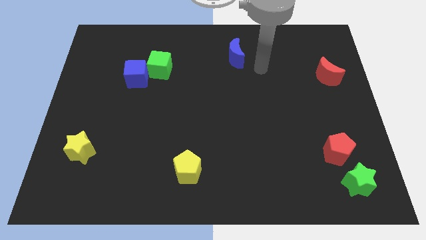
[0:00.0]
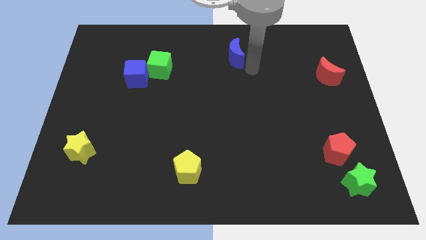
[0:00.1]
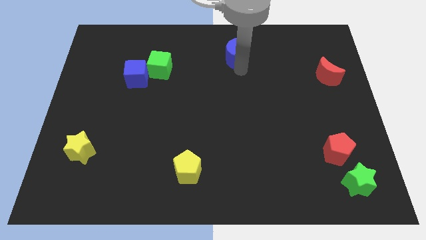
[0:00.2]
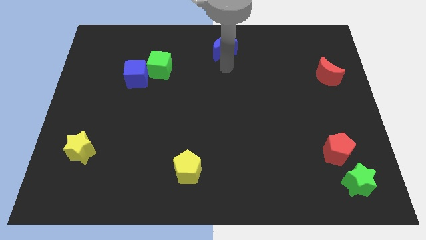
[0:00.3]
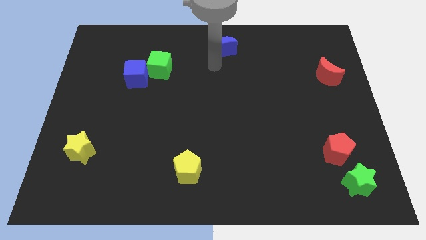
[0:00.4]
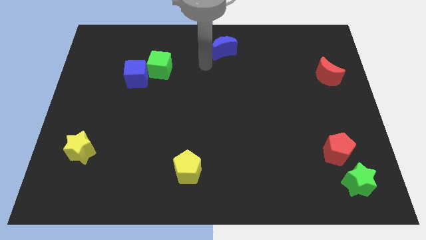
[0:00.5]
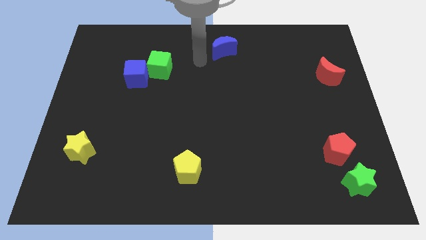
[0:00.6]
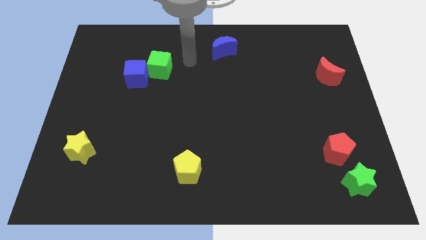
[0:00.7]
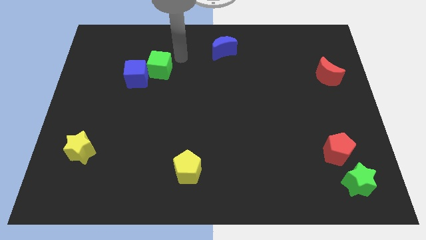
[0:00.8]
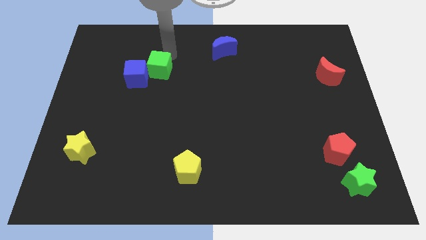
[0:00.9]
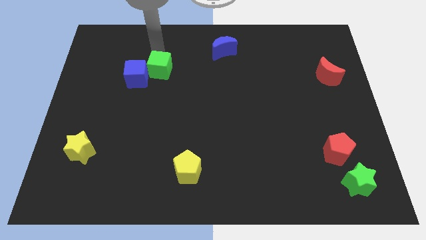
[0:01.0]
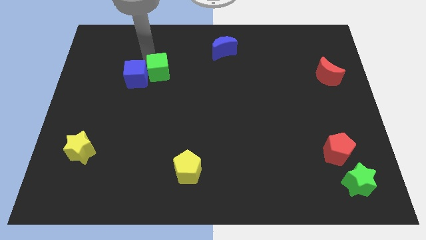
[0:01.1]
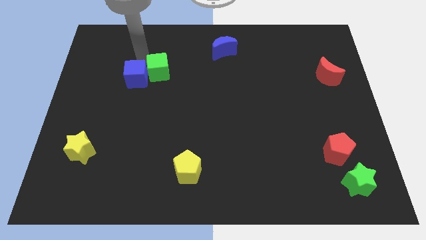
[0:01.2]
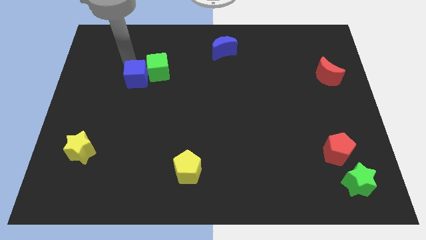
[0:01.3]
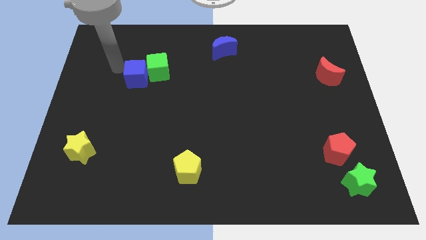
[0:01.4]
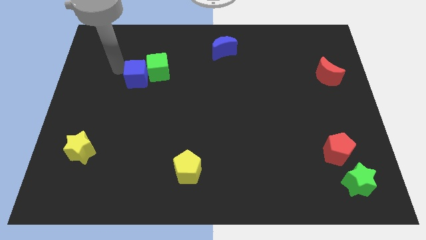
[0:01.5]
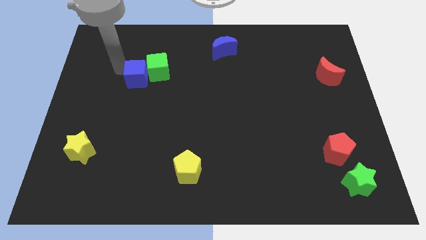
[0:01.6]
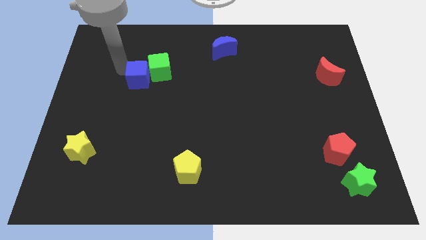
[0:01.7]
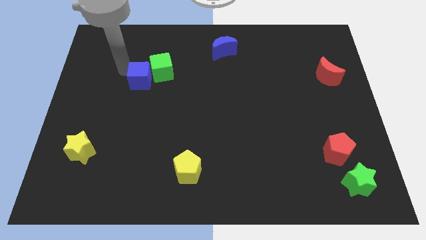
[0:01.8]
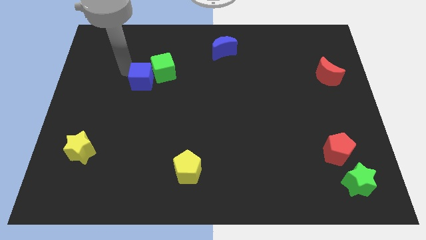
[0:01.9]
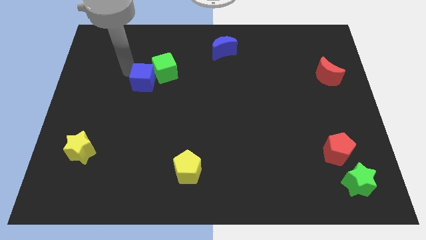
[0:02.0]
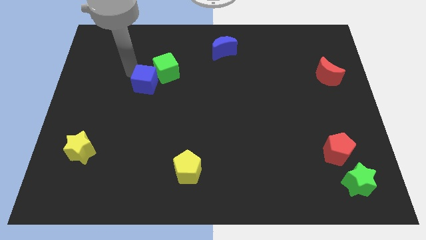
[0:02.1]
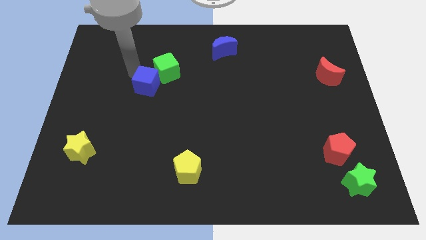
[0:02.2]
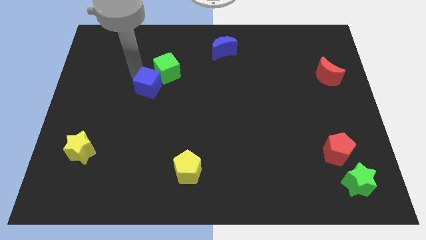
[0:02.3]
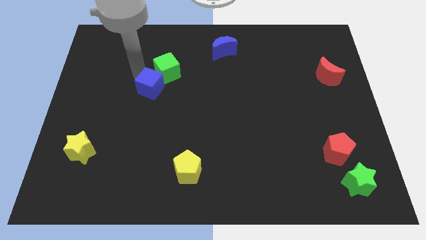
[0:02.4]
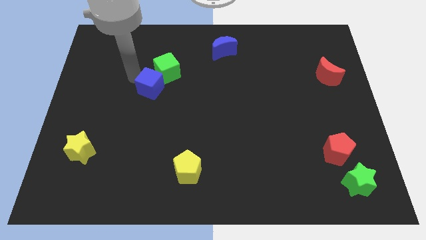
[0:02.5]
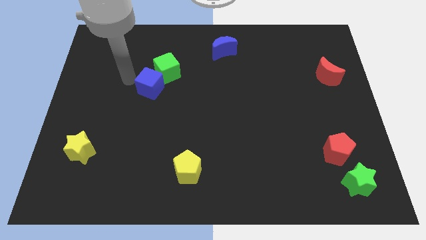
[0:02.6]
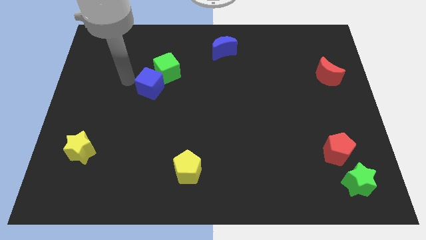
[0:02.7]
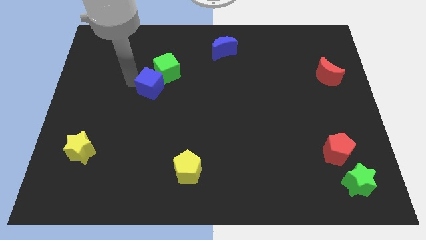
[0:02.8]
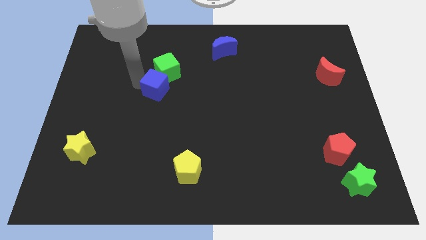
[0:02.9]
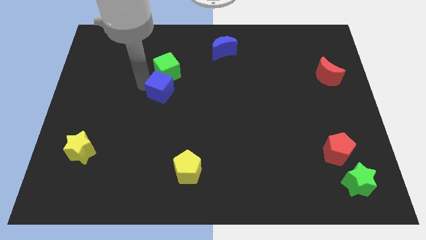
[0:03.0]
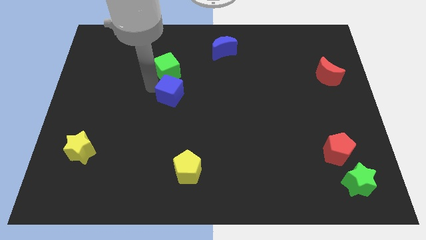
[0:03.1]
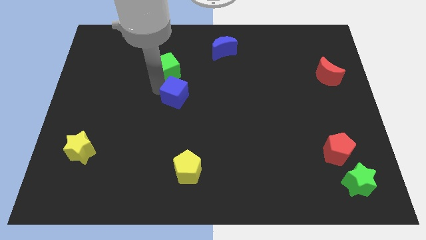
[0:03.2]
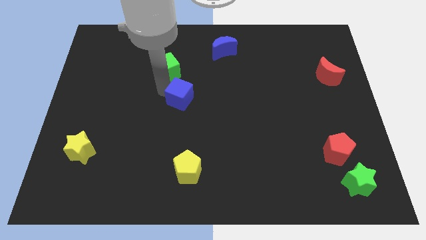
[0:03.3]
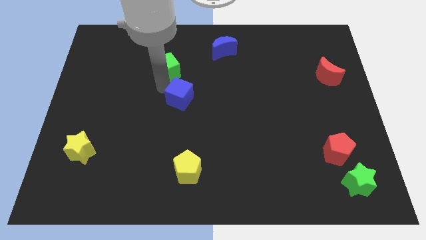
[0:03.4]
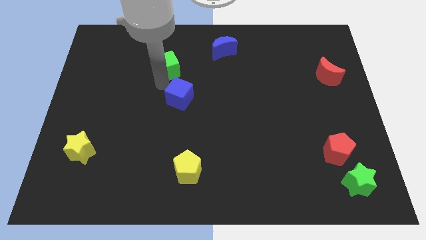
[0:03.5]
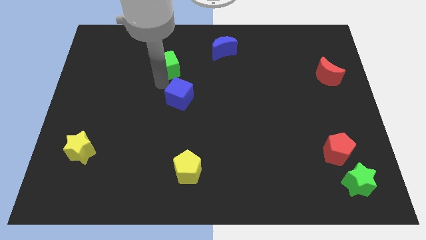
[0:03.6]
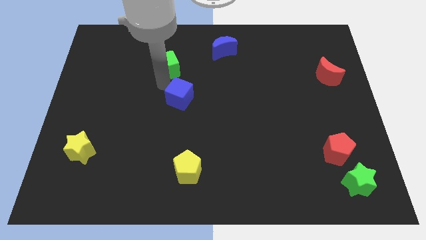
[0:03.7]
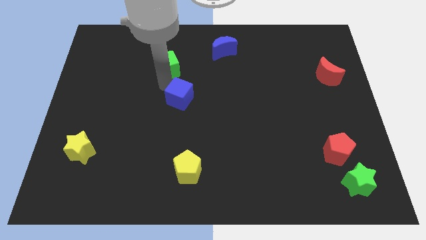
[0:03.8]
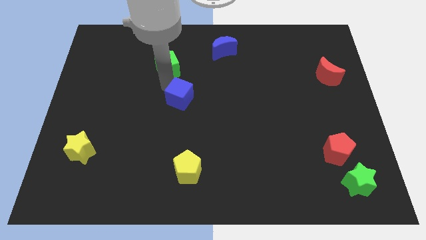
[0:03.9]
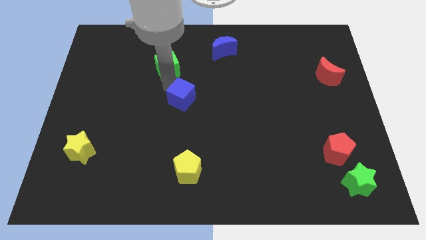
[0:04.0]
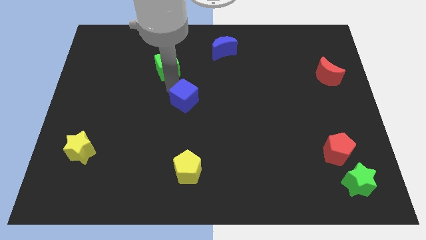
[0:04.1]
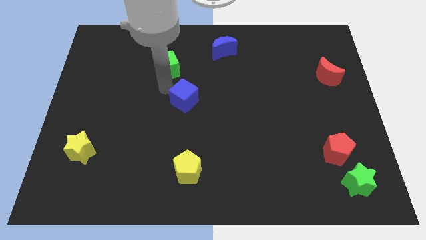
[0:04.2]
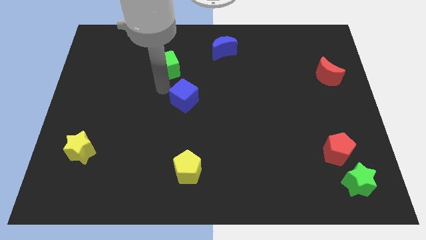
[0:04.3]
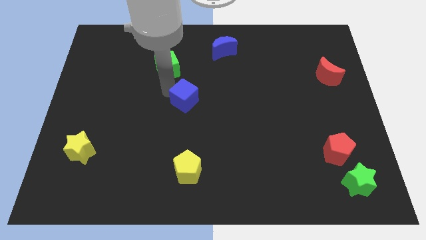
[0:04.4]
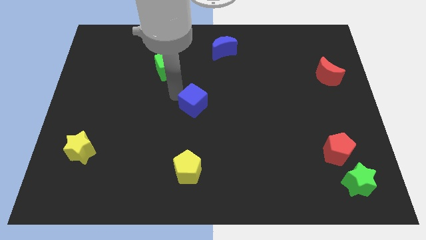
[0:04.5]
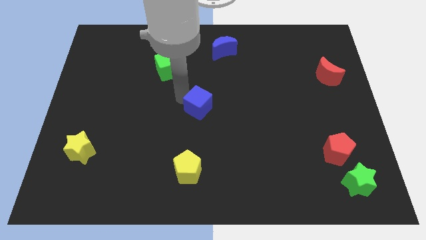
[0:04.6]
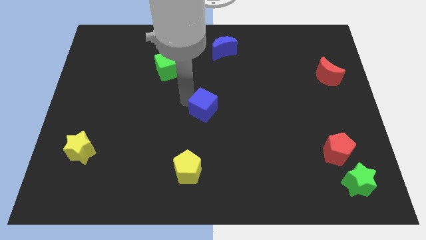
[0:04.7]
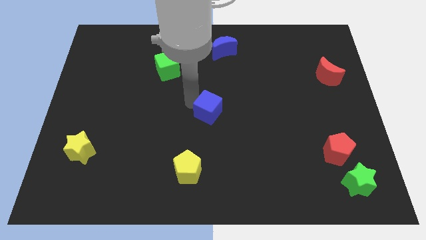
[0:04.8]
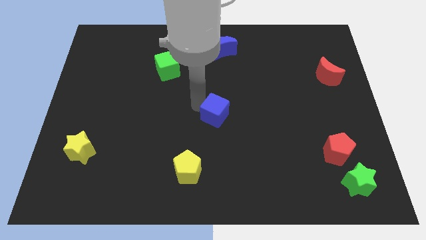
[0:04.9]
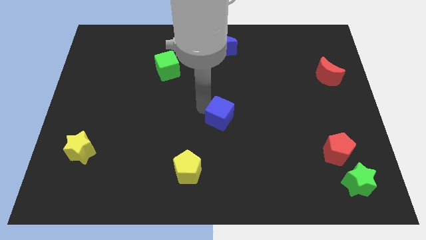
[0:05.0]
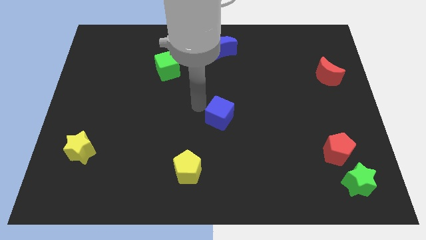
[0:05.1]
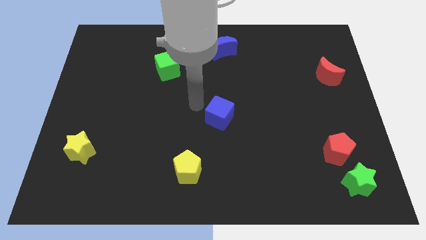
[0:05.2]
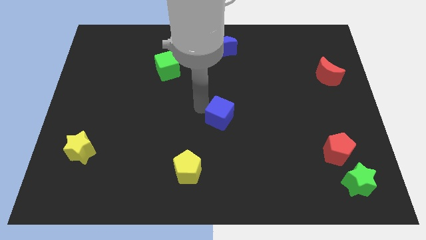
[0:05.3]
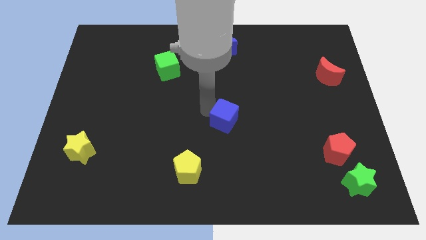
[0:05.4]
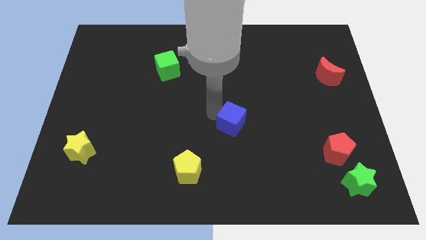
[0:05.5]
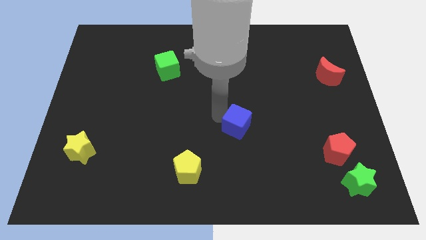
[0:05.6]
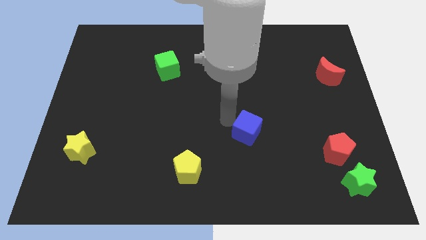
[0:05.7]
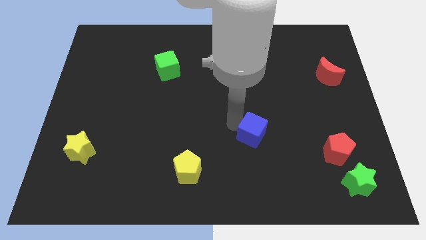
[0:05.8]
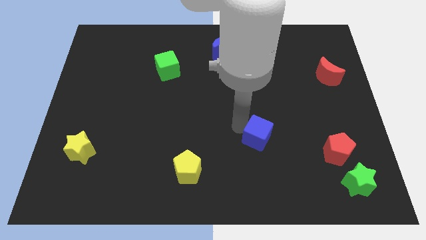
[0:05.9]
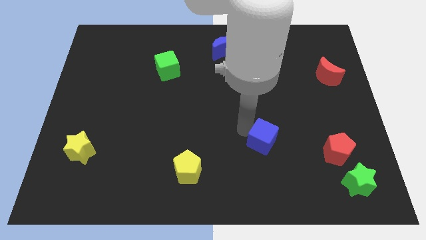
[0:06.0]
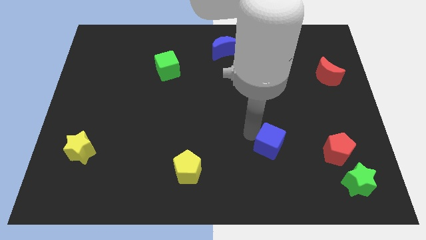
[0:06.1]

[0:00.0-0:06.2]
move the blue cube just left of the red pentagon

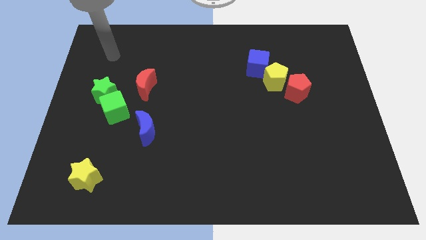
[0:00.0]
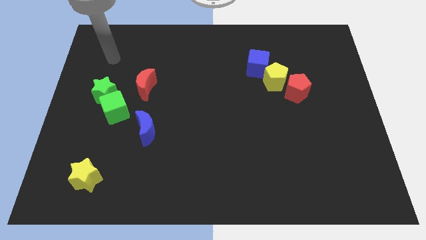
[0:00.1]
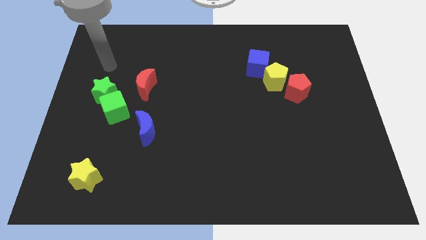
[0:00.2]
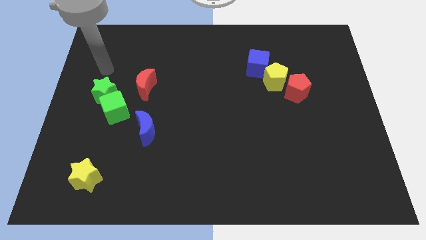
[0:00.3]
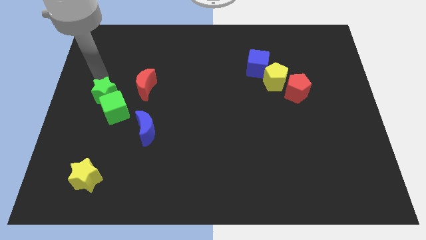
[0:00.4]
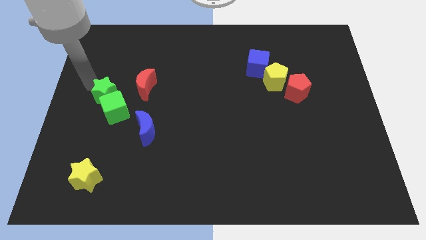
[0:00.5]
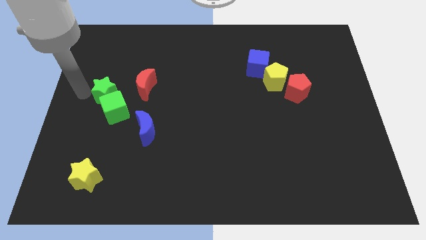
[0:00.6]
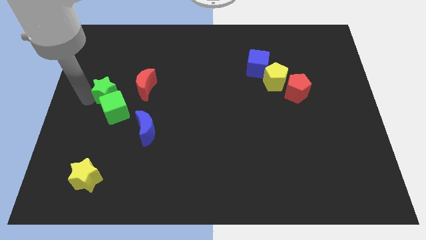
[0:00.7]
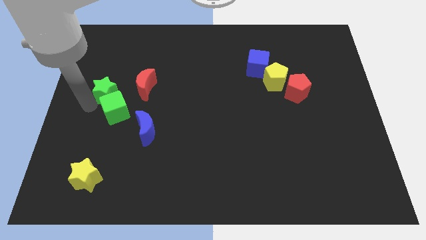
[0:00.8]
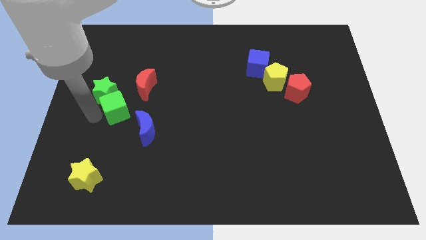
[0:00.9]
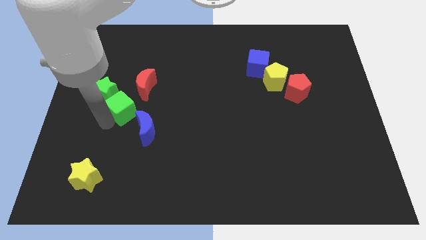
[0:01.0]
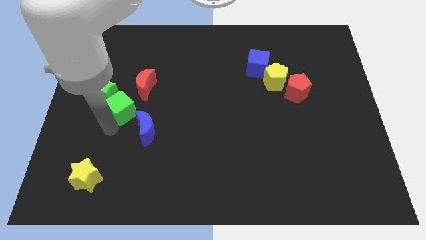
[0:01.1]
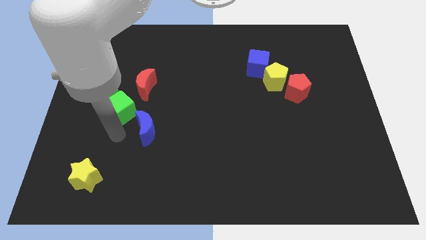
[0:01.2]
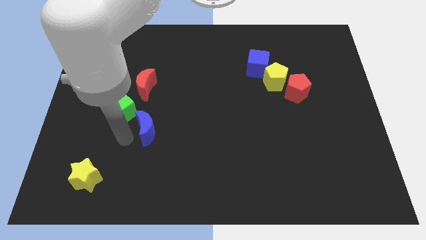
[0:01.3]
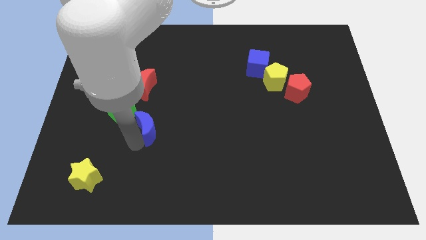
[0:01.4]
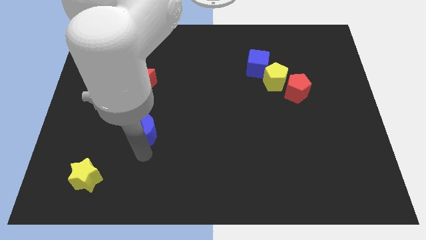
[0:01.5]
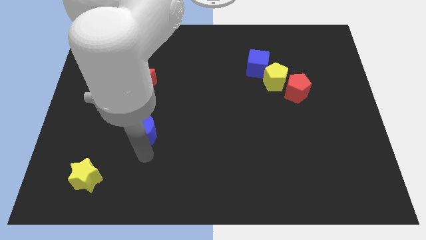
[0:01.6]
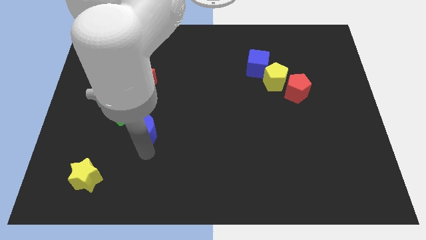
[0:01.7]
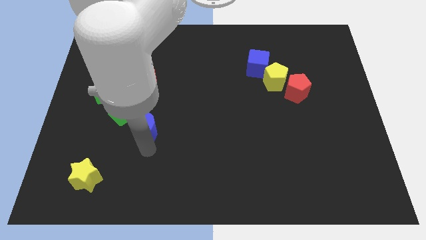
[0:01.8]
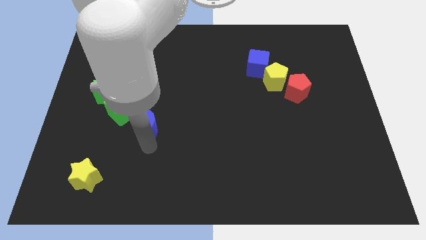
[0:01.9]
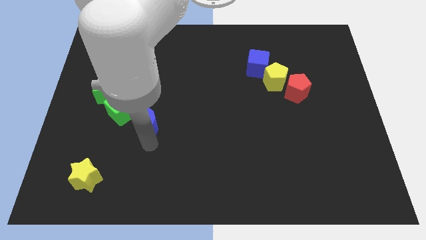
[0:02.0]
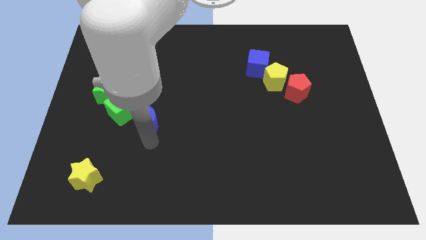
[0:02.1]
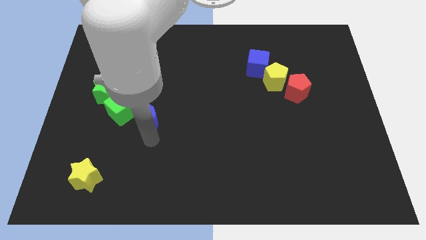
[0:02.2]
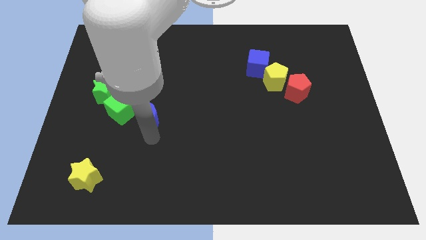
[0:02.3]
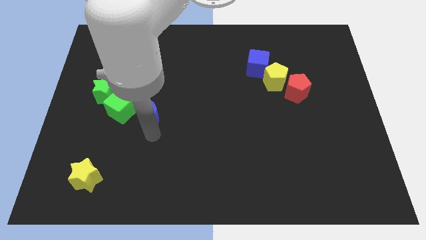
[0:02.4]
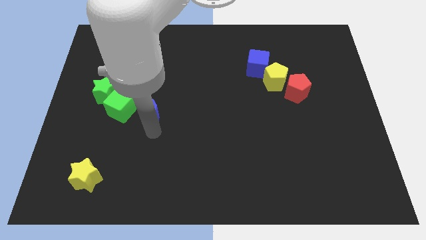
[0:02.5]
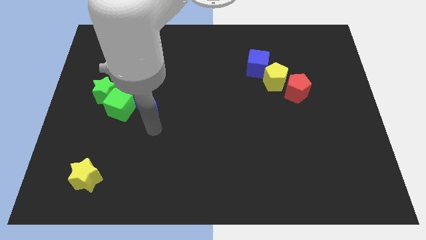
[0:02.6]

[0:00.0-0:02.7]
move the blue moon to the right of the green star
